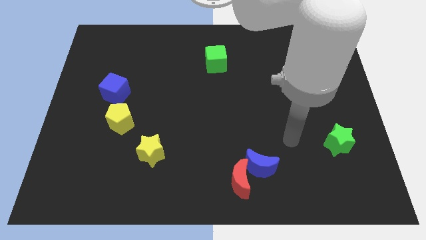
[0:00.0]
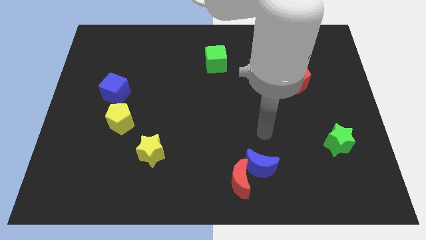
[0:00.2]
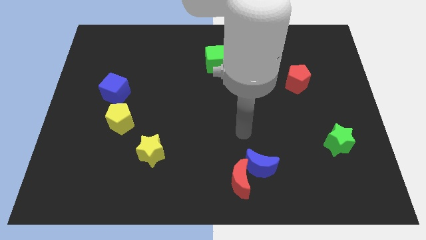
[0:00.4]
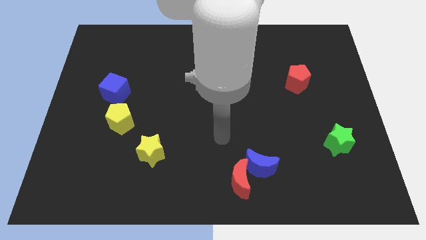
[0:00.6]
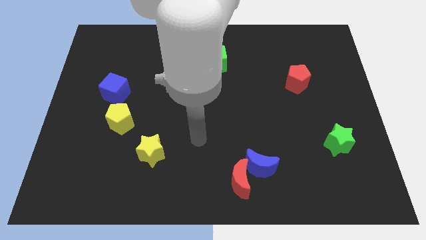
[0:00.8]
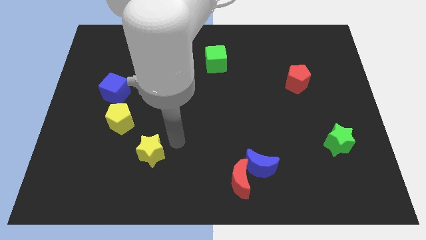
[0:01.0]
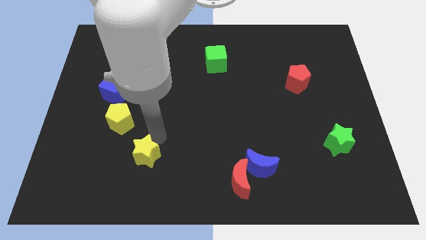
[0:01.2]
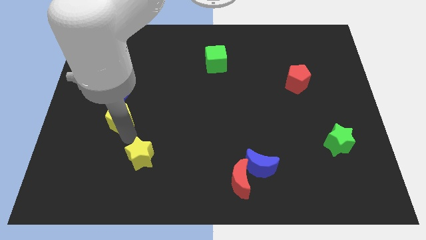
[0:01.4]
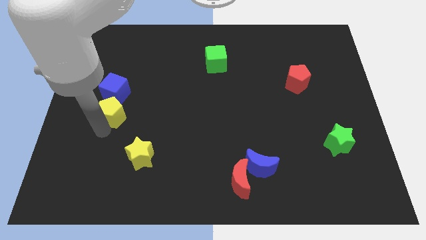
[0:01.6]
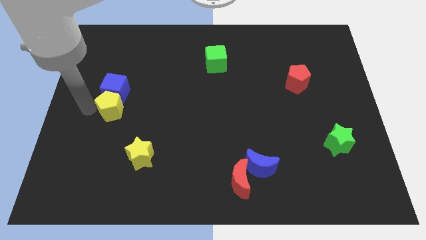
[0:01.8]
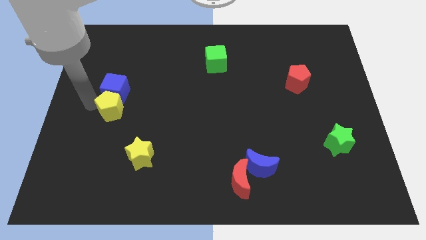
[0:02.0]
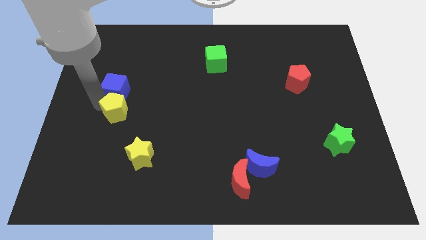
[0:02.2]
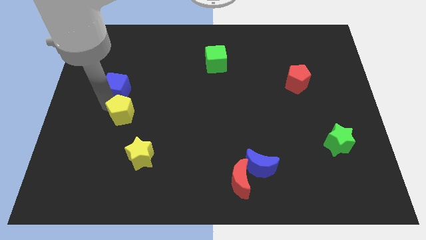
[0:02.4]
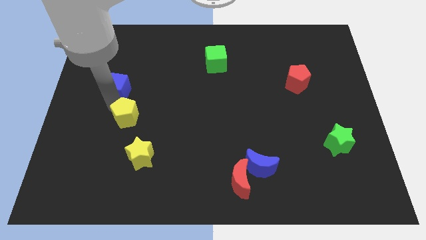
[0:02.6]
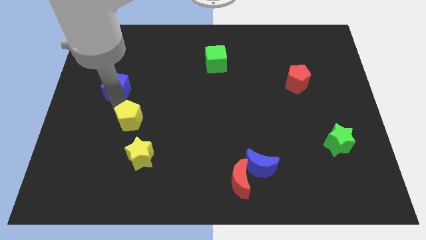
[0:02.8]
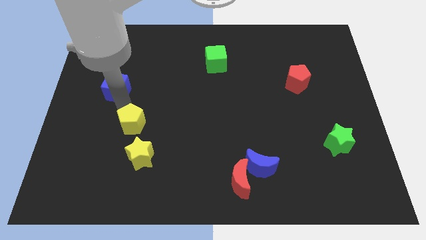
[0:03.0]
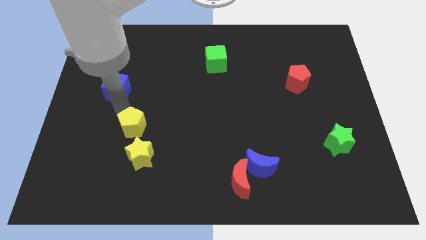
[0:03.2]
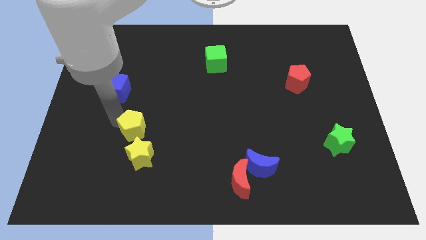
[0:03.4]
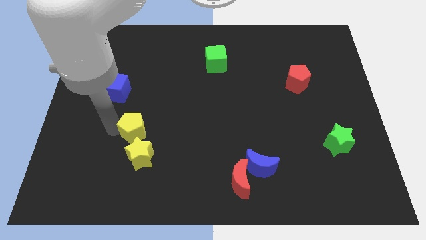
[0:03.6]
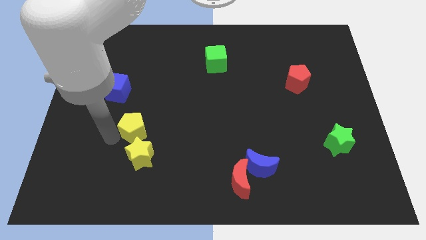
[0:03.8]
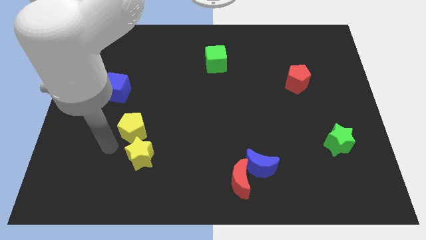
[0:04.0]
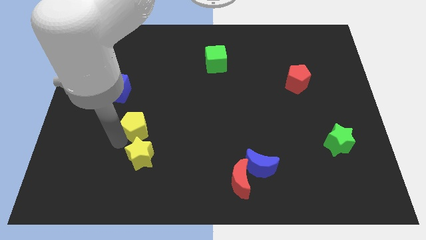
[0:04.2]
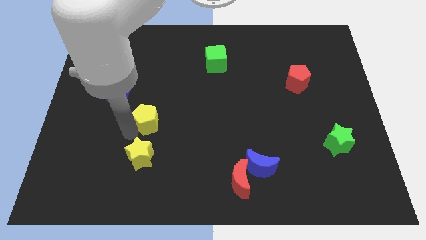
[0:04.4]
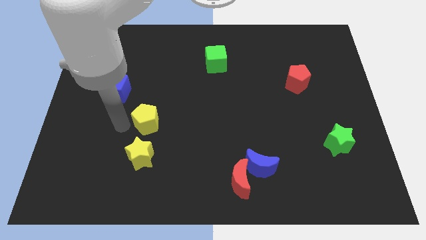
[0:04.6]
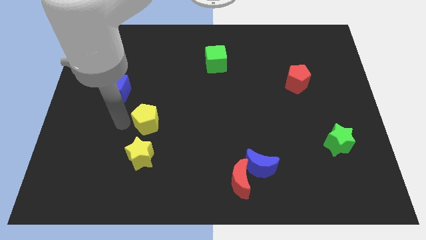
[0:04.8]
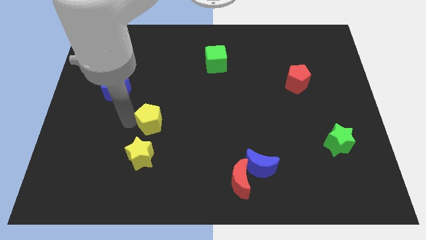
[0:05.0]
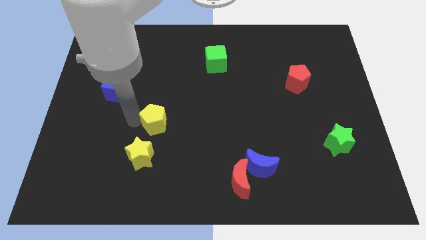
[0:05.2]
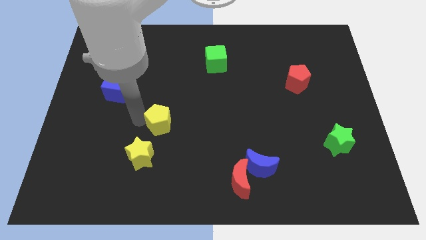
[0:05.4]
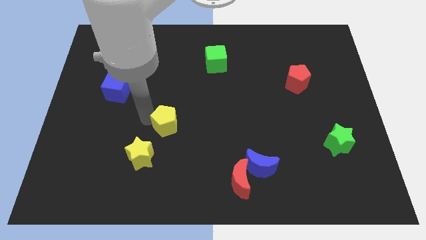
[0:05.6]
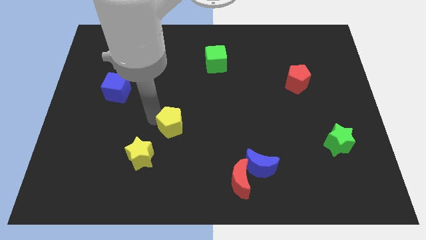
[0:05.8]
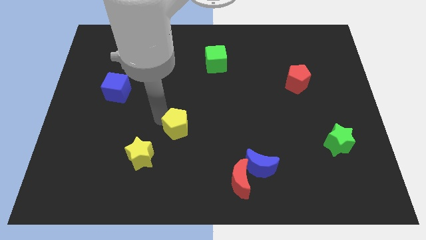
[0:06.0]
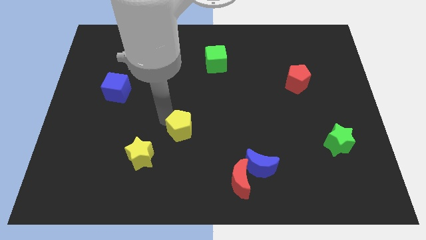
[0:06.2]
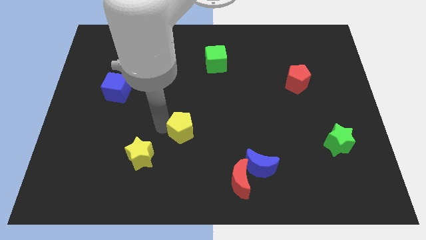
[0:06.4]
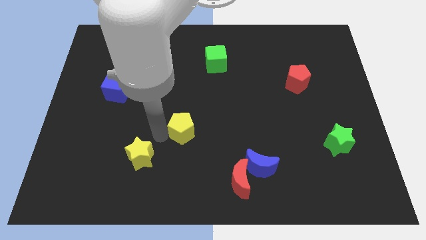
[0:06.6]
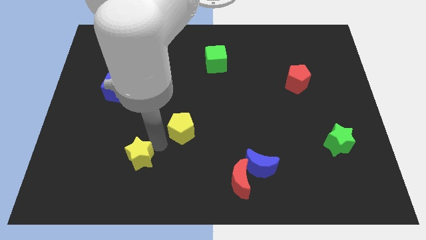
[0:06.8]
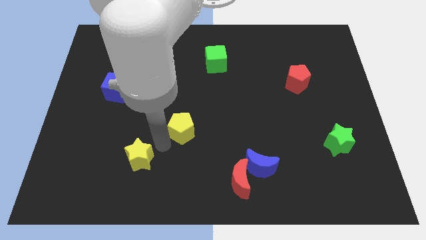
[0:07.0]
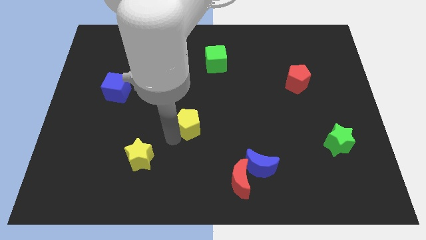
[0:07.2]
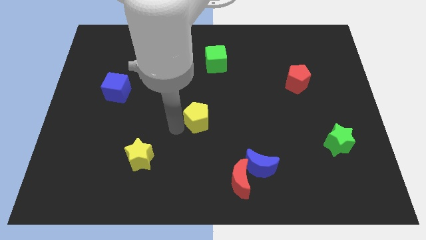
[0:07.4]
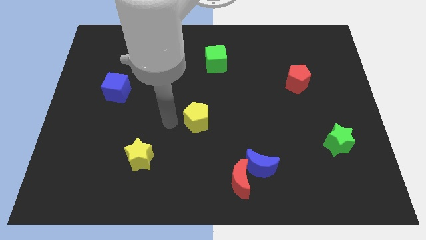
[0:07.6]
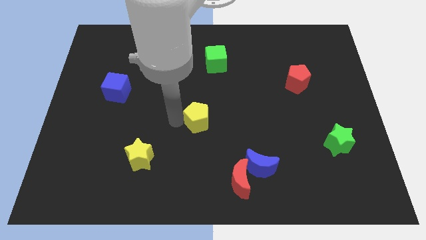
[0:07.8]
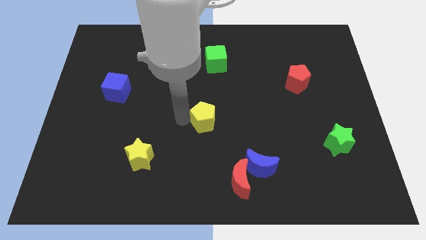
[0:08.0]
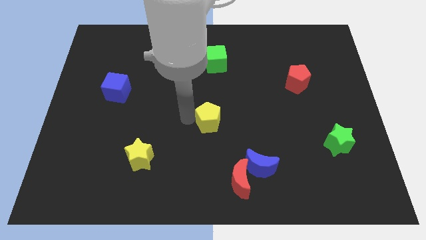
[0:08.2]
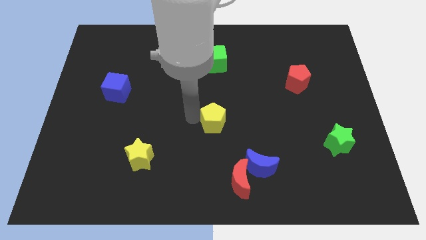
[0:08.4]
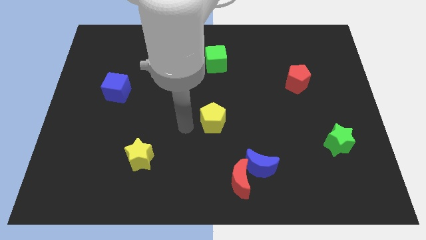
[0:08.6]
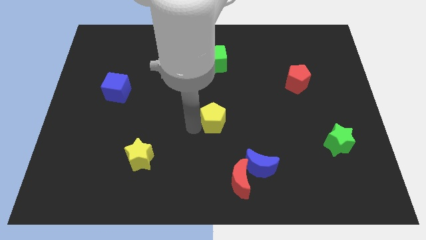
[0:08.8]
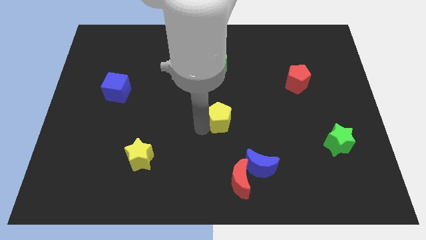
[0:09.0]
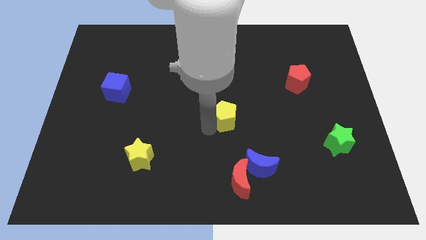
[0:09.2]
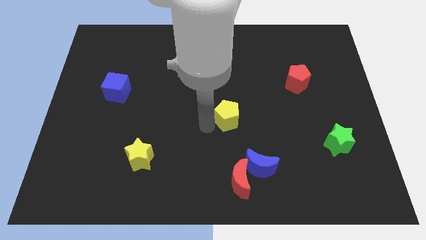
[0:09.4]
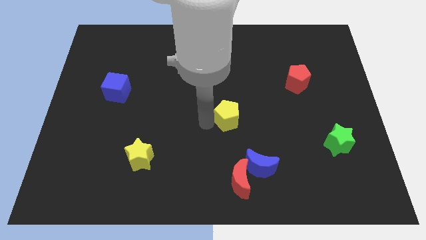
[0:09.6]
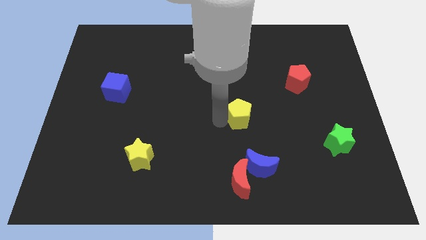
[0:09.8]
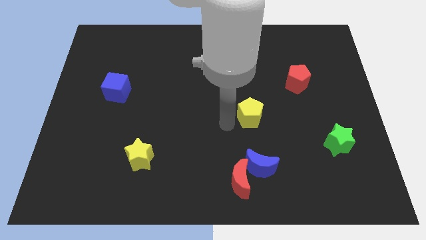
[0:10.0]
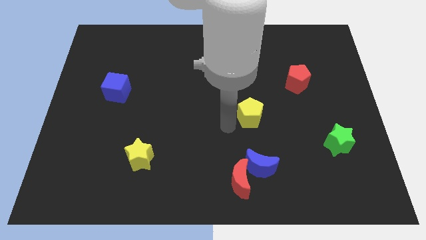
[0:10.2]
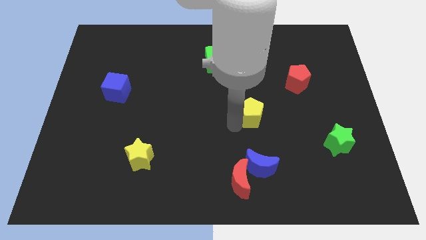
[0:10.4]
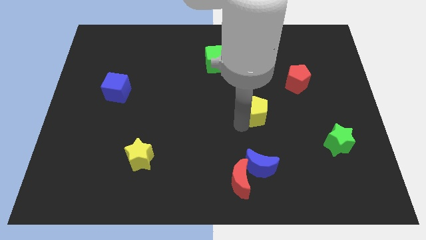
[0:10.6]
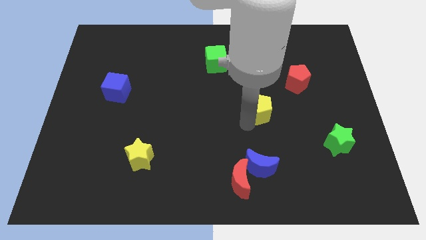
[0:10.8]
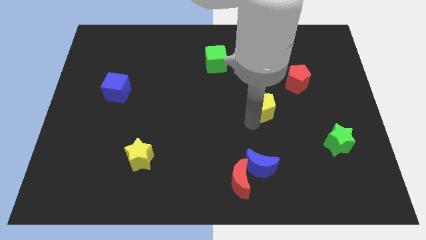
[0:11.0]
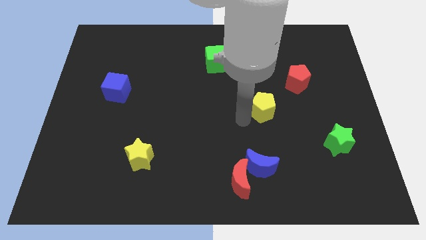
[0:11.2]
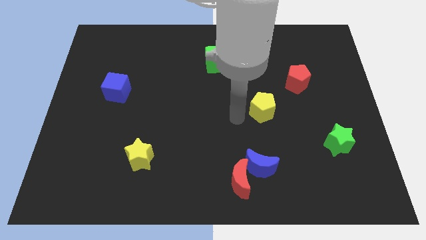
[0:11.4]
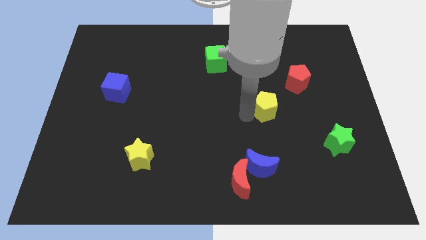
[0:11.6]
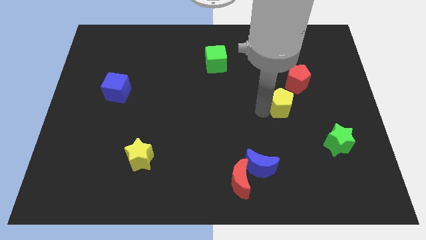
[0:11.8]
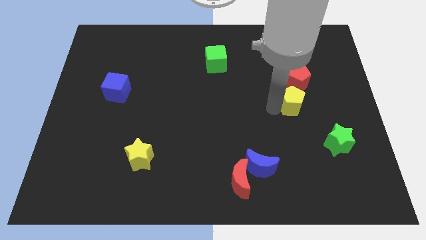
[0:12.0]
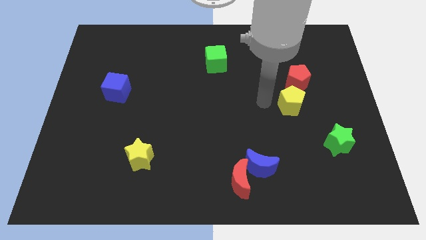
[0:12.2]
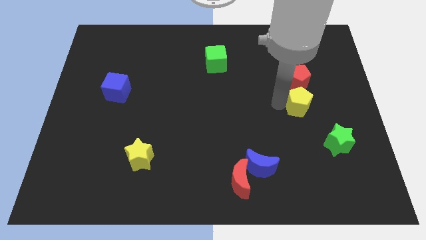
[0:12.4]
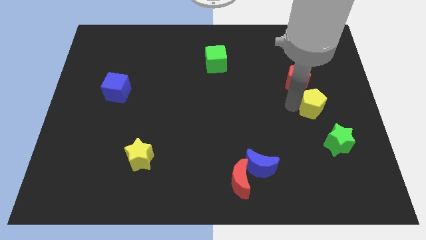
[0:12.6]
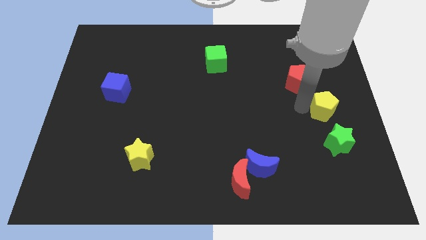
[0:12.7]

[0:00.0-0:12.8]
slide the yellow pentagon to the center right

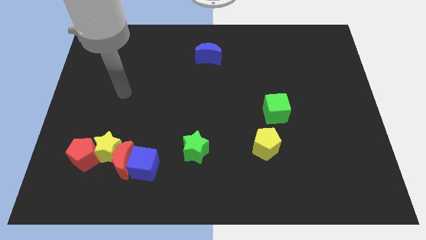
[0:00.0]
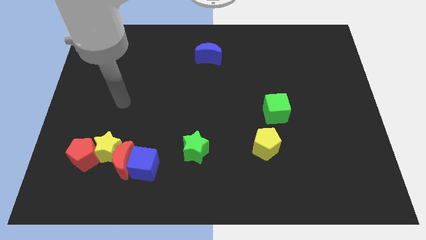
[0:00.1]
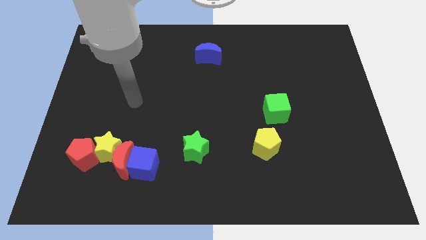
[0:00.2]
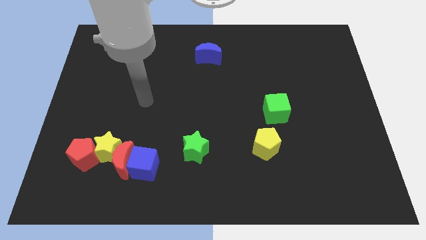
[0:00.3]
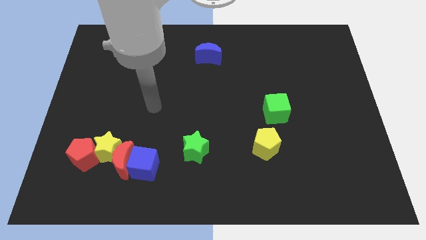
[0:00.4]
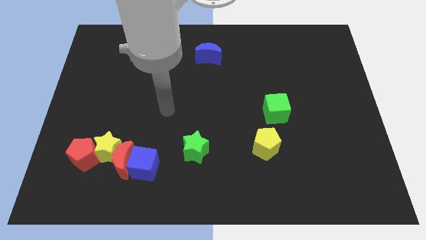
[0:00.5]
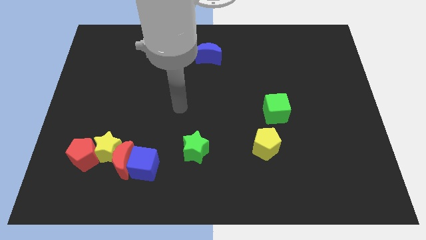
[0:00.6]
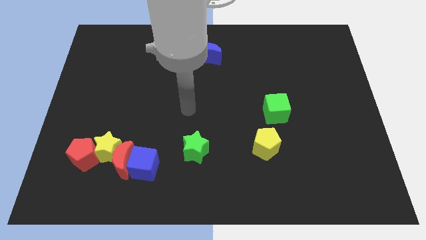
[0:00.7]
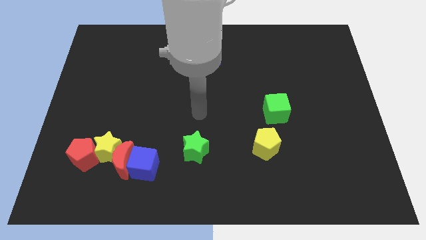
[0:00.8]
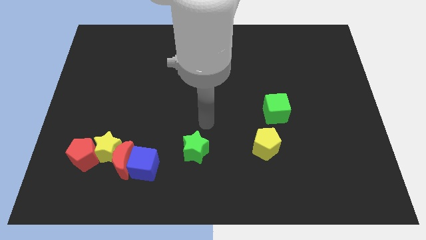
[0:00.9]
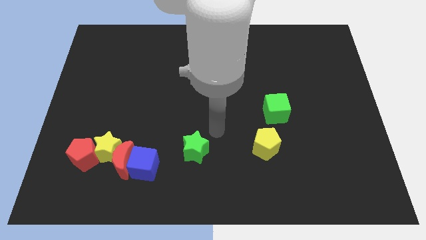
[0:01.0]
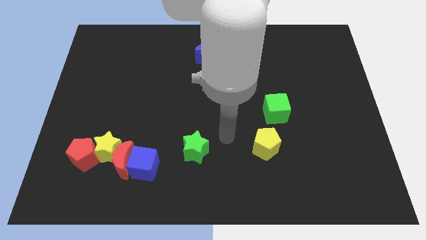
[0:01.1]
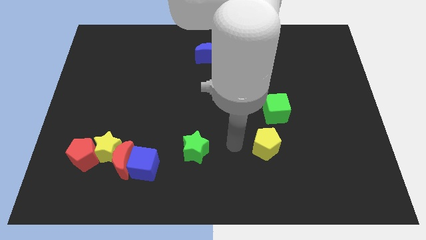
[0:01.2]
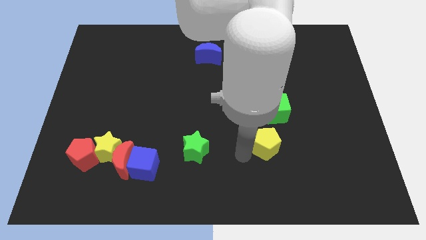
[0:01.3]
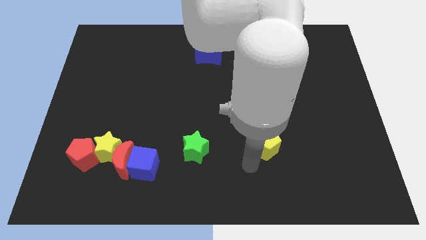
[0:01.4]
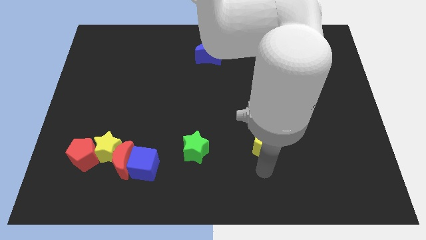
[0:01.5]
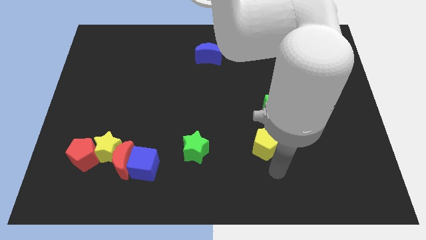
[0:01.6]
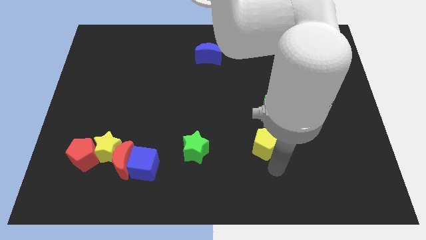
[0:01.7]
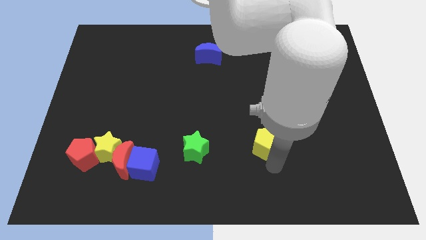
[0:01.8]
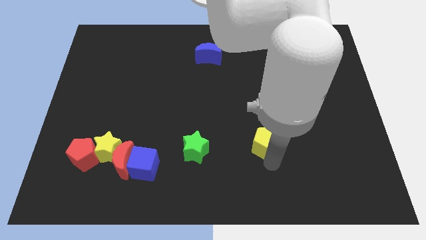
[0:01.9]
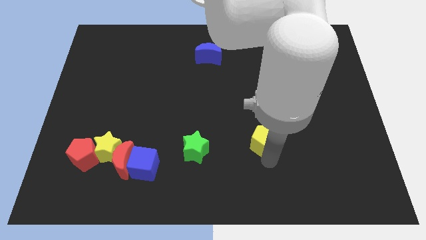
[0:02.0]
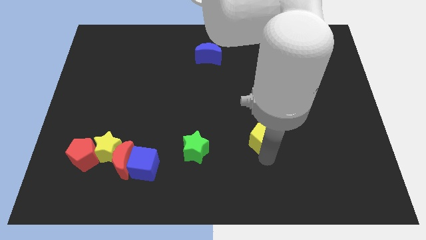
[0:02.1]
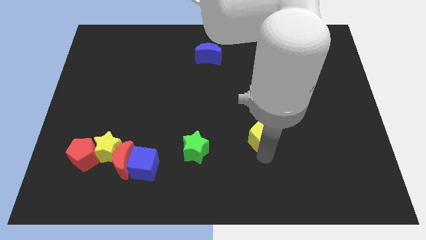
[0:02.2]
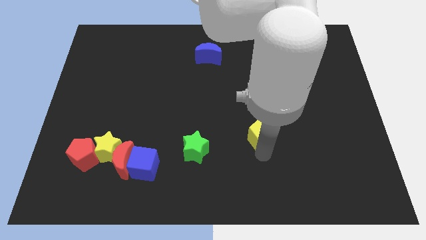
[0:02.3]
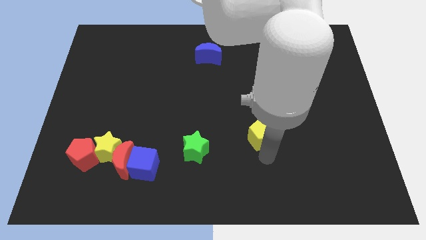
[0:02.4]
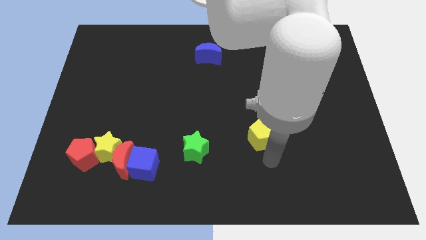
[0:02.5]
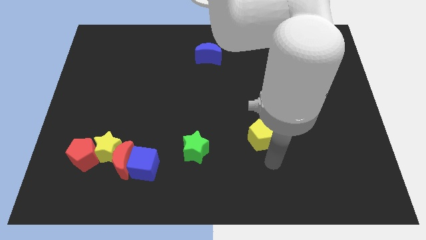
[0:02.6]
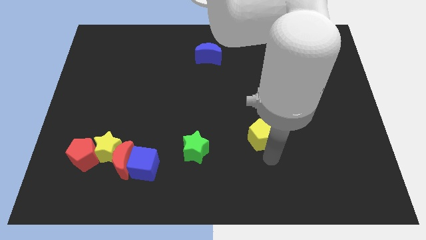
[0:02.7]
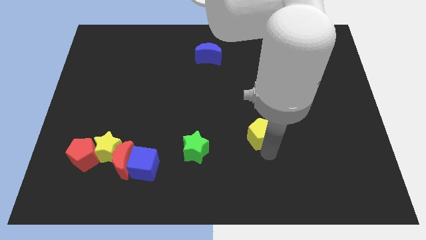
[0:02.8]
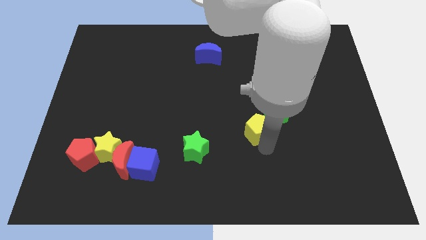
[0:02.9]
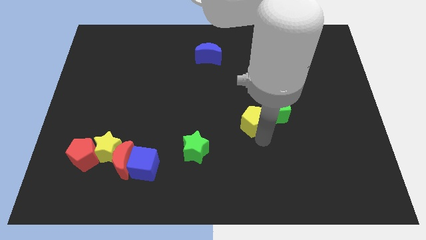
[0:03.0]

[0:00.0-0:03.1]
move the yellow pentagon to the center
